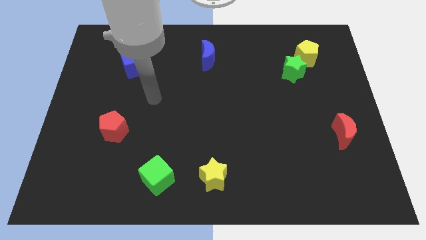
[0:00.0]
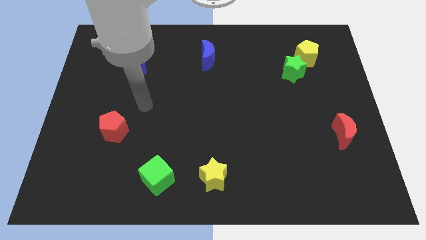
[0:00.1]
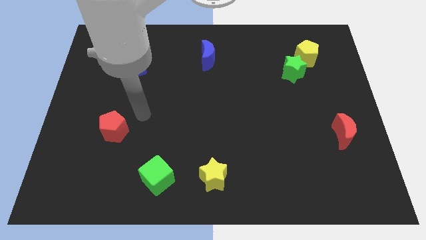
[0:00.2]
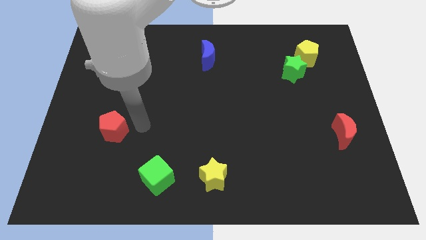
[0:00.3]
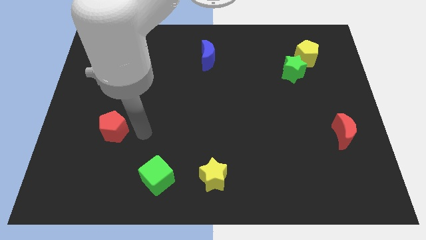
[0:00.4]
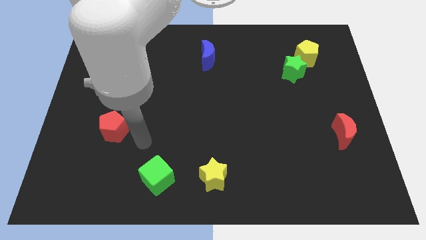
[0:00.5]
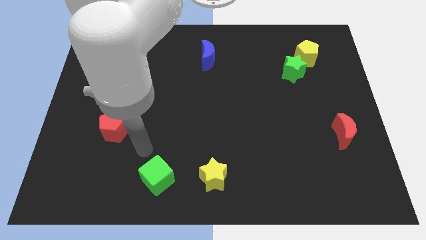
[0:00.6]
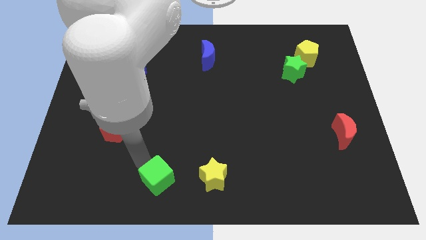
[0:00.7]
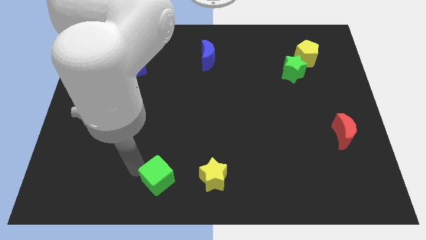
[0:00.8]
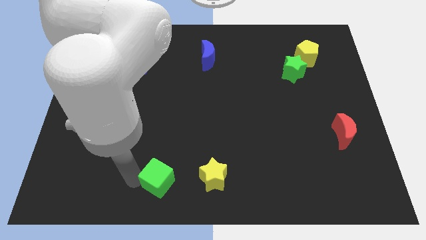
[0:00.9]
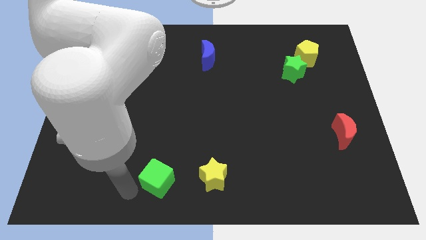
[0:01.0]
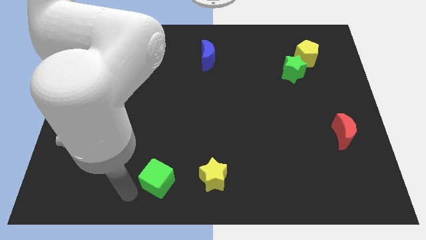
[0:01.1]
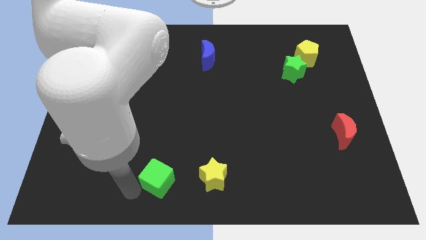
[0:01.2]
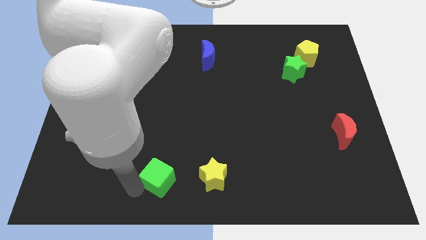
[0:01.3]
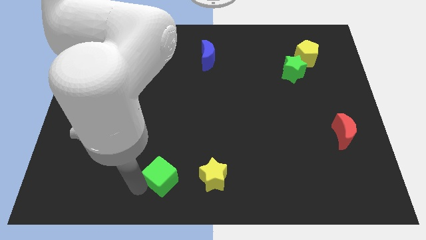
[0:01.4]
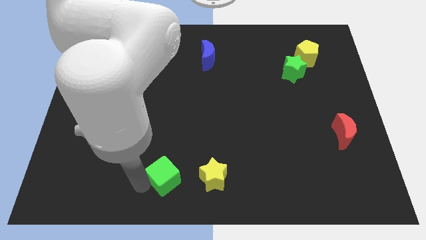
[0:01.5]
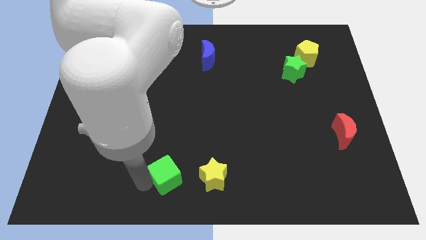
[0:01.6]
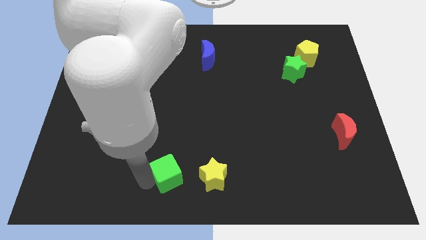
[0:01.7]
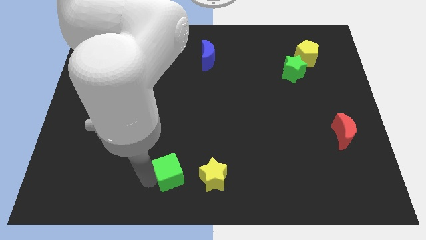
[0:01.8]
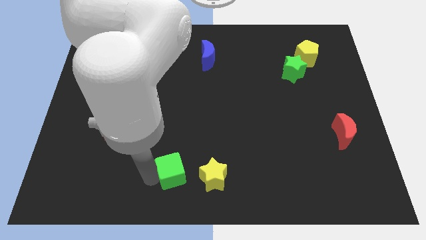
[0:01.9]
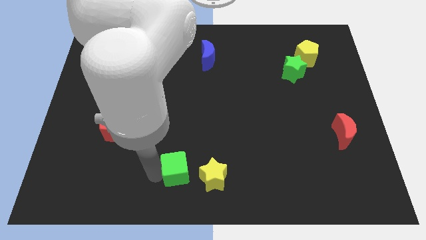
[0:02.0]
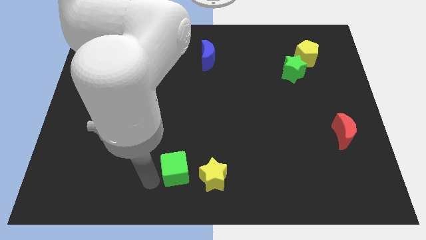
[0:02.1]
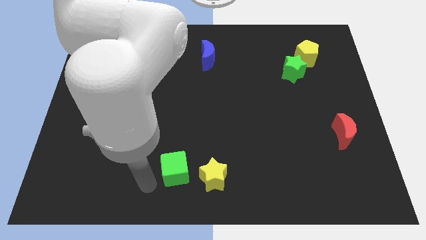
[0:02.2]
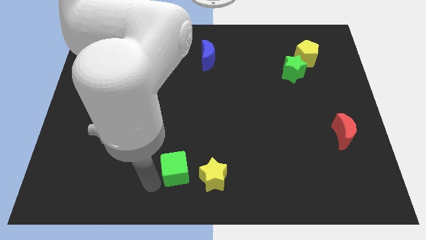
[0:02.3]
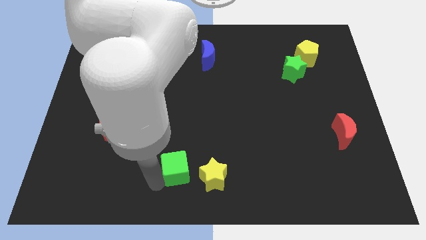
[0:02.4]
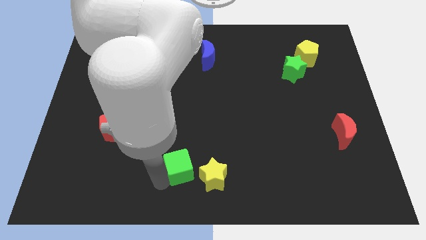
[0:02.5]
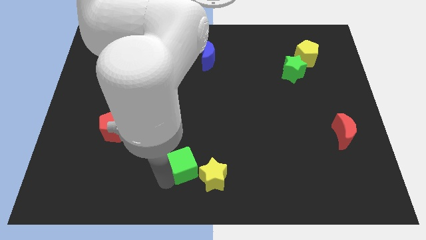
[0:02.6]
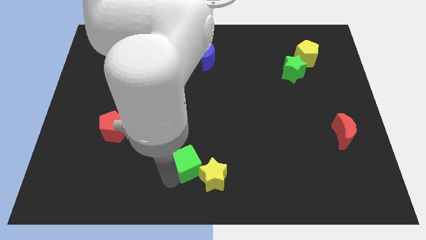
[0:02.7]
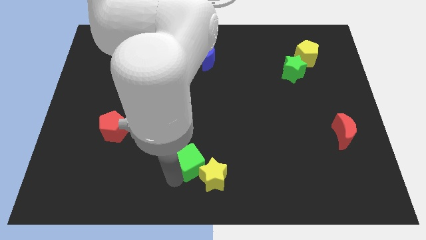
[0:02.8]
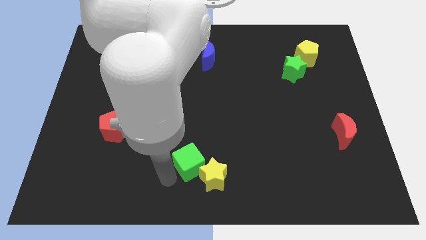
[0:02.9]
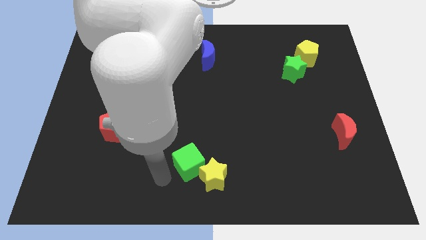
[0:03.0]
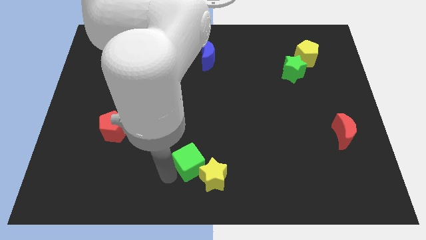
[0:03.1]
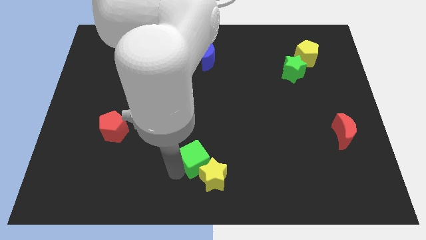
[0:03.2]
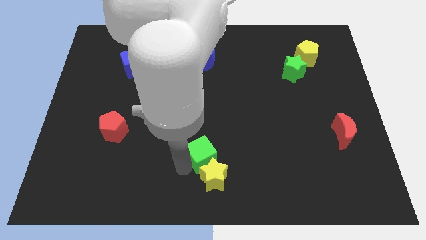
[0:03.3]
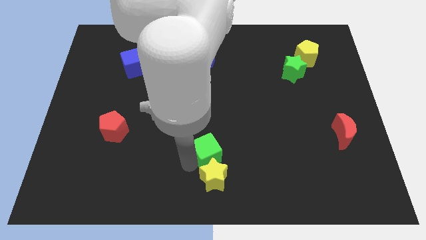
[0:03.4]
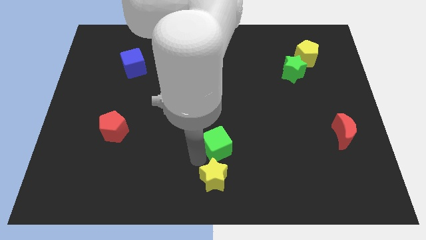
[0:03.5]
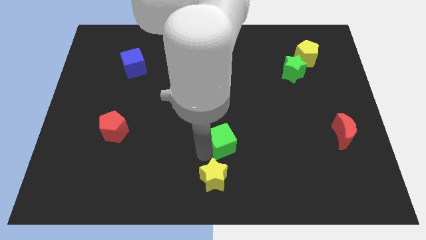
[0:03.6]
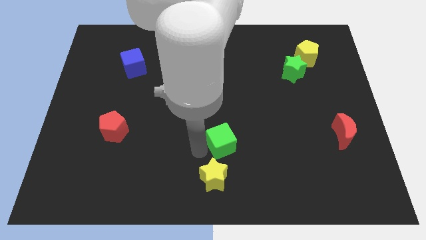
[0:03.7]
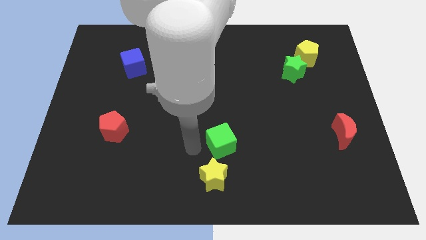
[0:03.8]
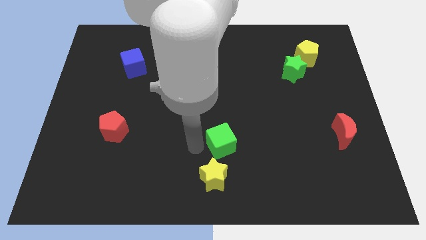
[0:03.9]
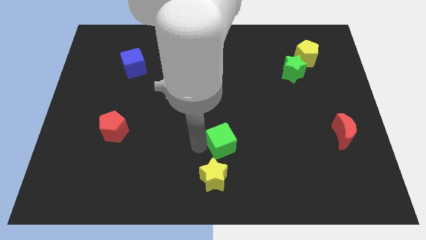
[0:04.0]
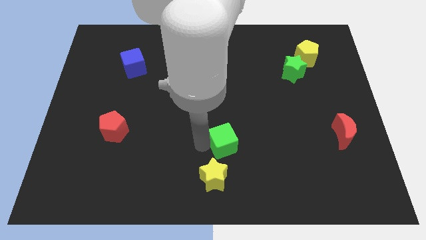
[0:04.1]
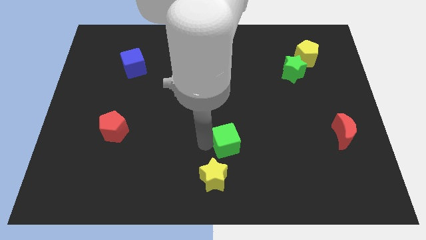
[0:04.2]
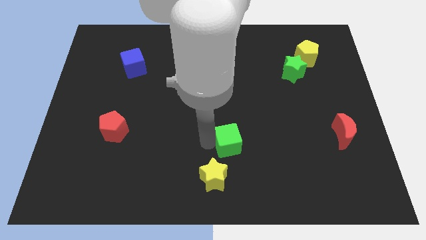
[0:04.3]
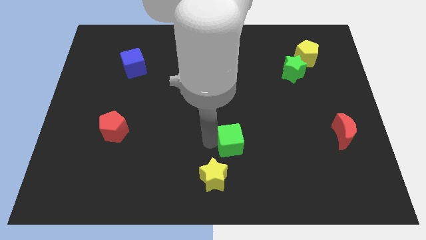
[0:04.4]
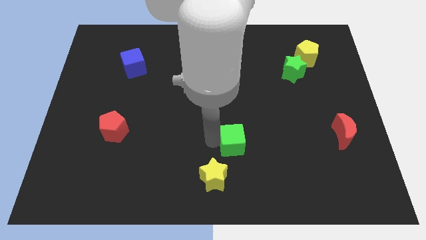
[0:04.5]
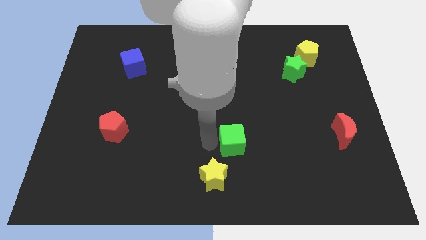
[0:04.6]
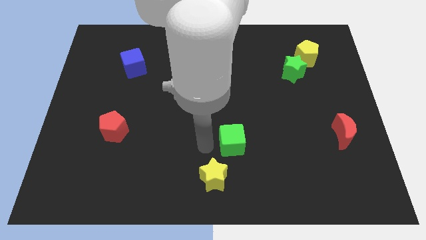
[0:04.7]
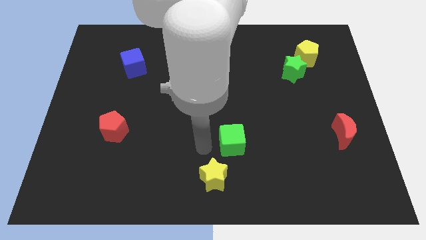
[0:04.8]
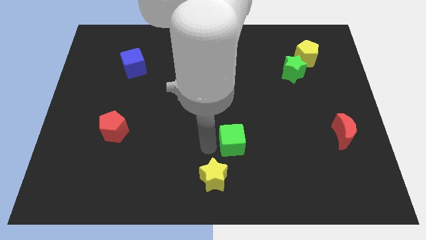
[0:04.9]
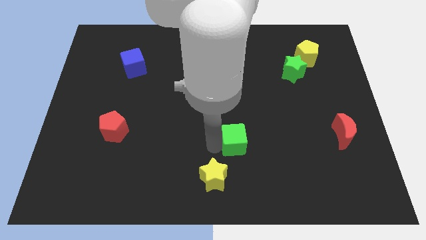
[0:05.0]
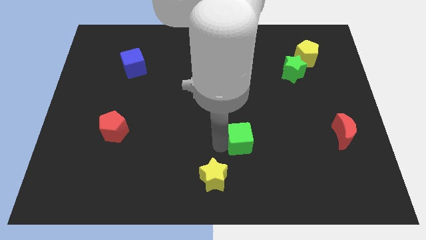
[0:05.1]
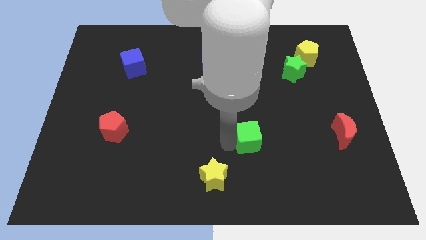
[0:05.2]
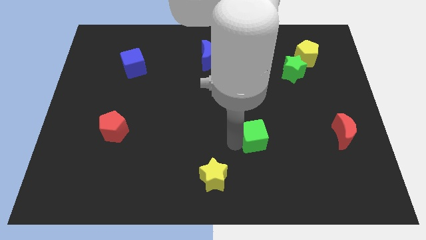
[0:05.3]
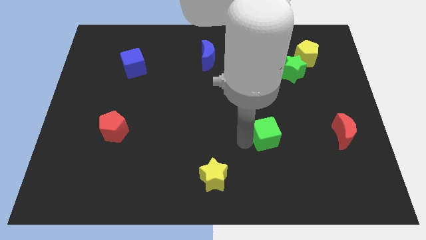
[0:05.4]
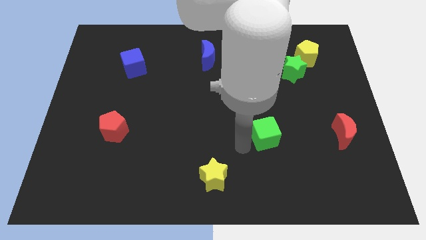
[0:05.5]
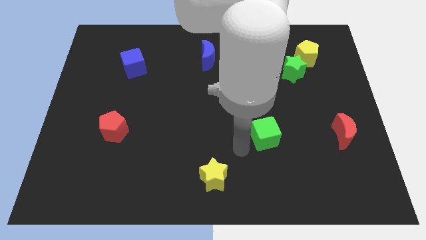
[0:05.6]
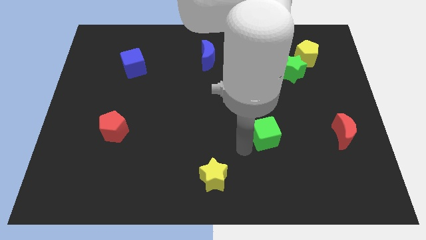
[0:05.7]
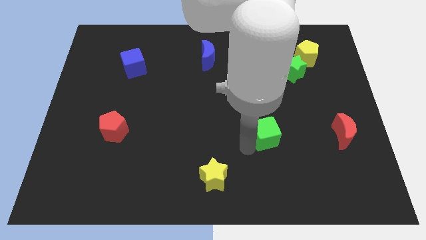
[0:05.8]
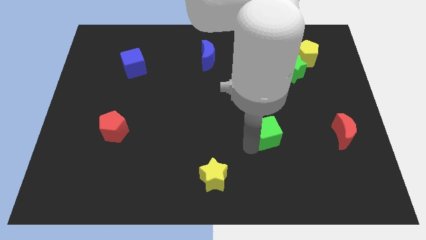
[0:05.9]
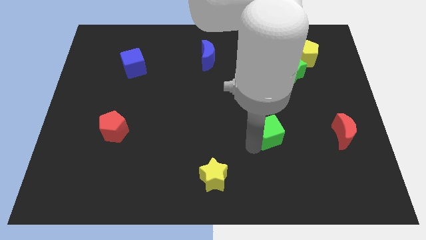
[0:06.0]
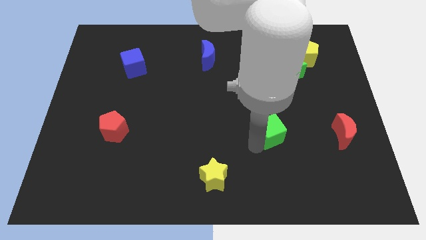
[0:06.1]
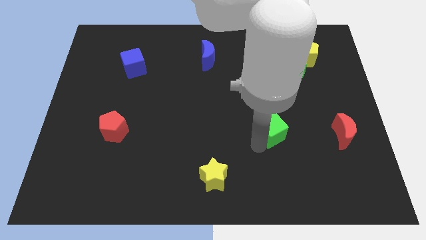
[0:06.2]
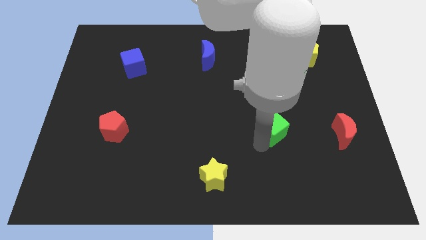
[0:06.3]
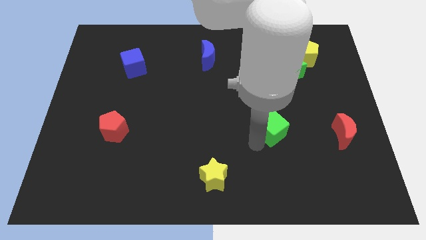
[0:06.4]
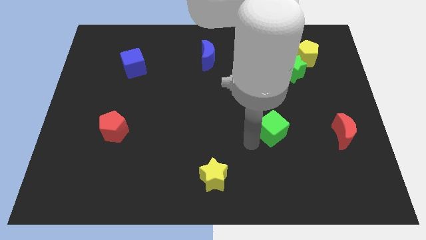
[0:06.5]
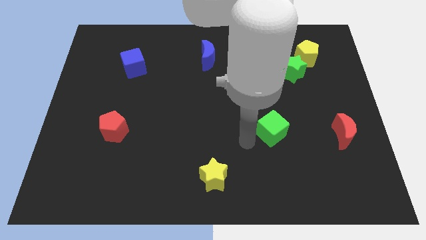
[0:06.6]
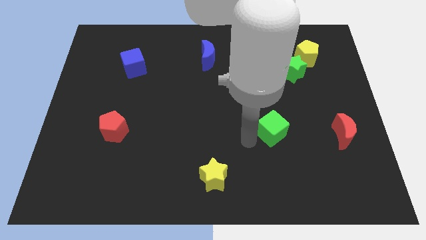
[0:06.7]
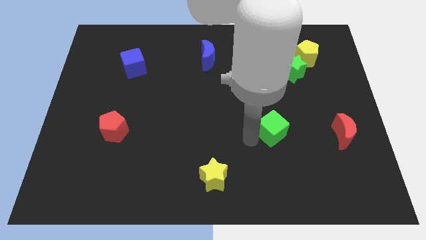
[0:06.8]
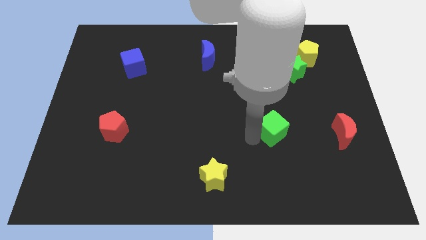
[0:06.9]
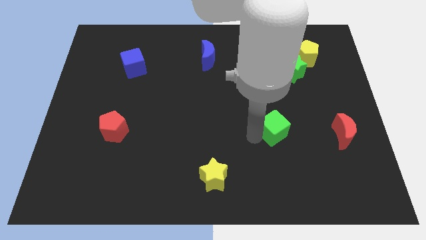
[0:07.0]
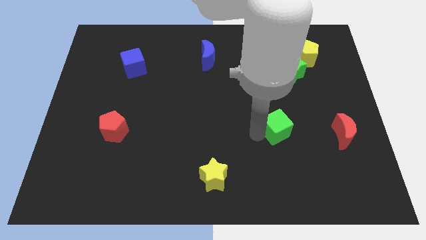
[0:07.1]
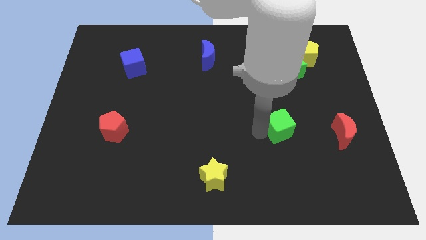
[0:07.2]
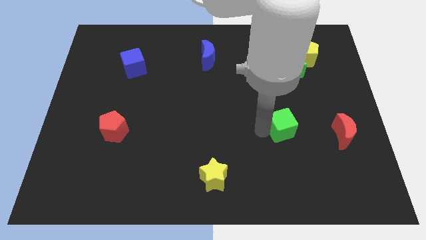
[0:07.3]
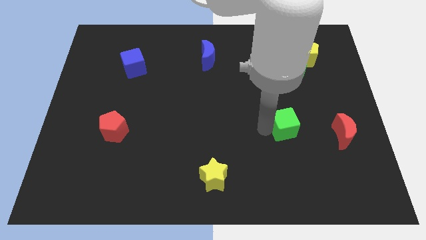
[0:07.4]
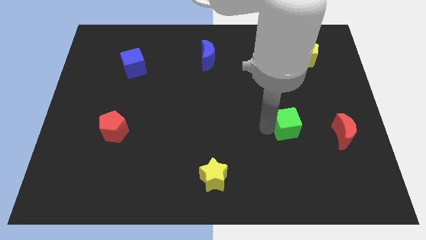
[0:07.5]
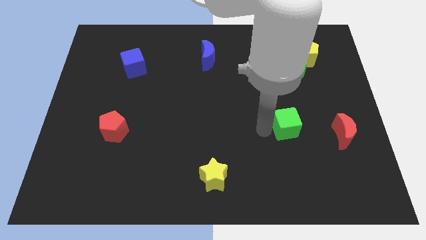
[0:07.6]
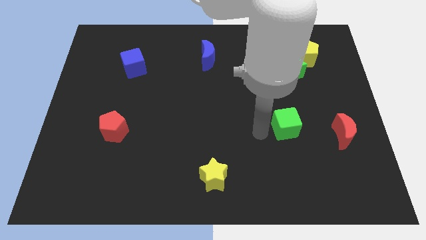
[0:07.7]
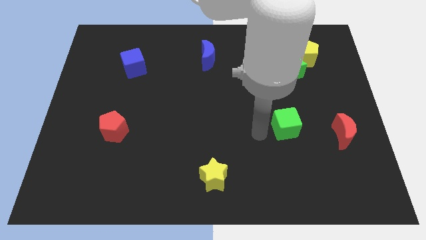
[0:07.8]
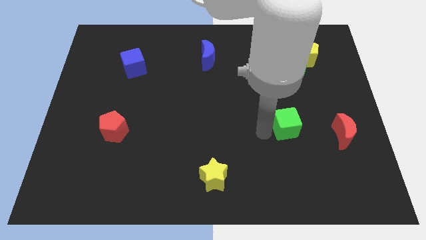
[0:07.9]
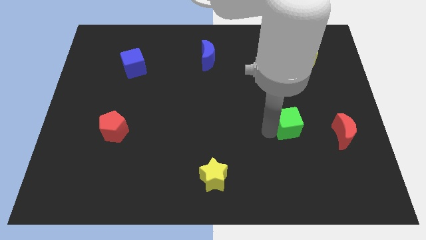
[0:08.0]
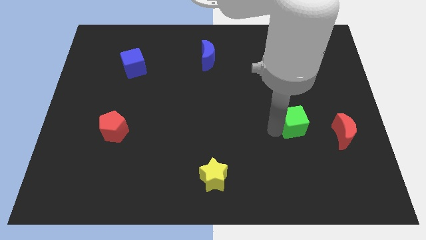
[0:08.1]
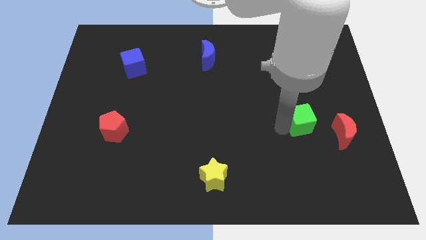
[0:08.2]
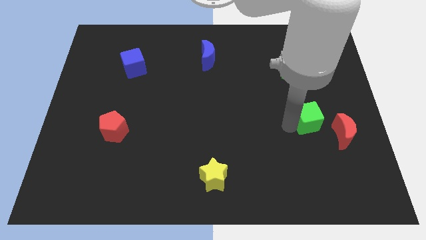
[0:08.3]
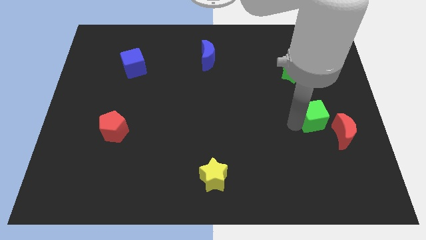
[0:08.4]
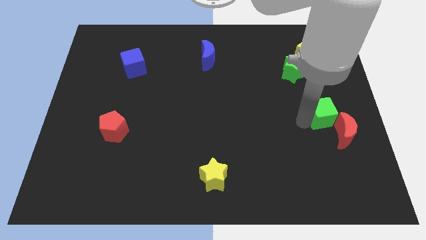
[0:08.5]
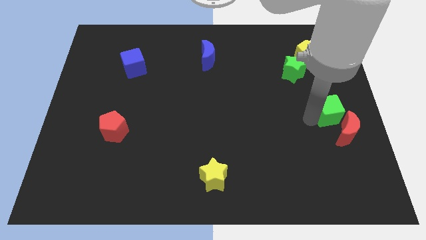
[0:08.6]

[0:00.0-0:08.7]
push the green cube to the right side
